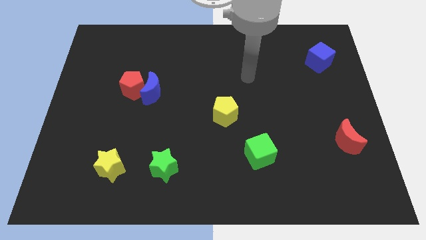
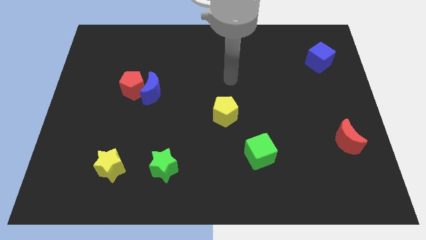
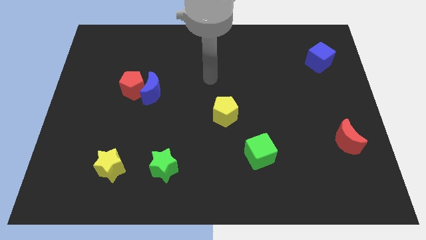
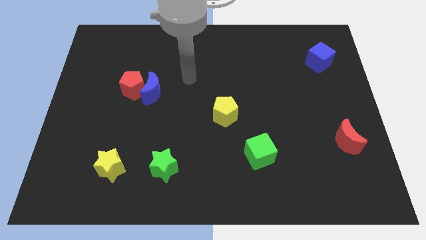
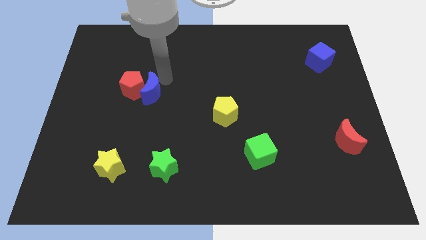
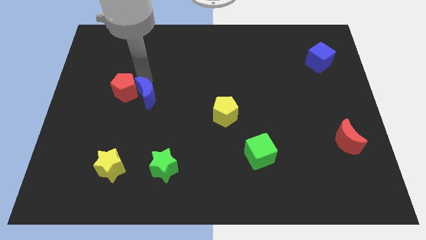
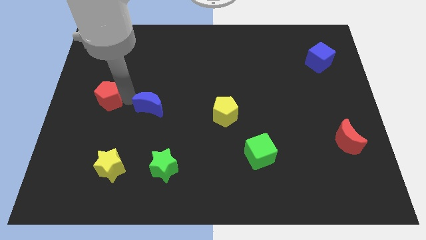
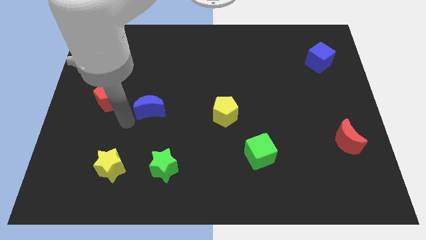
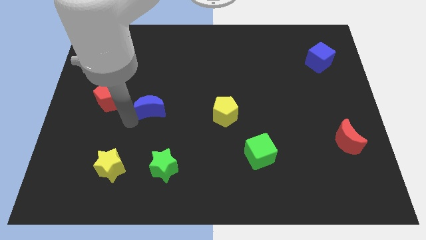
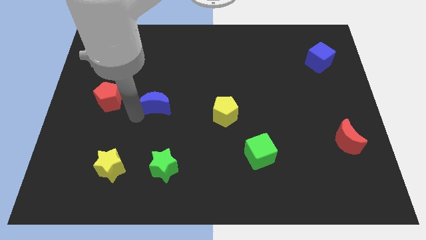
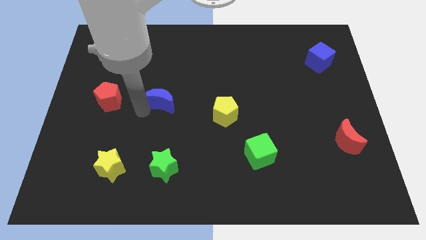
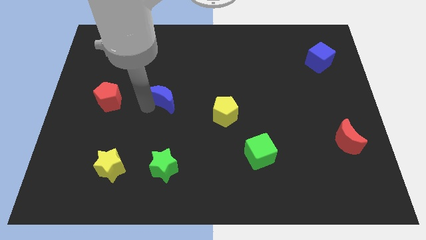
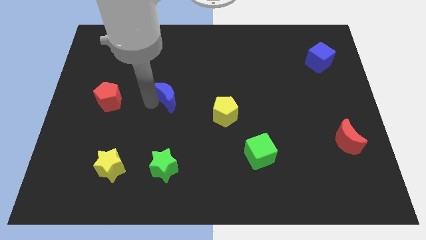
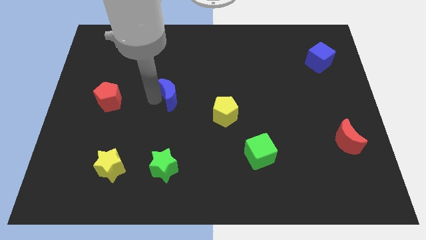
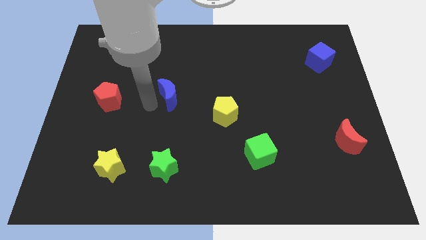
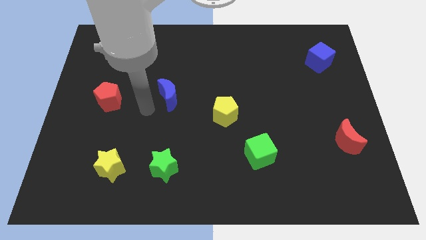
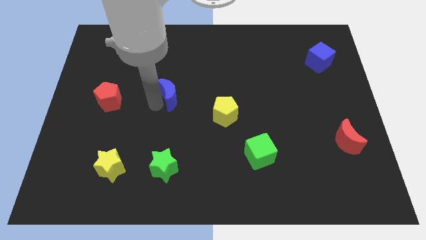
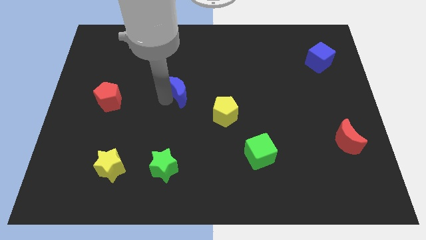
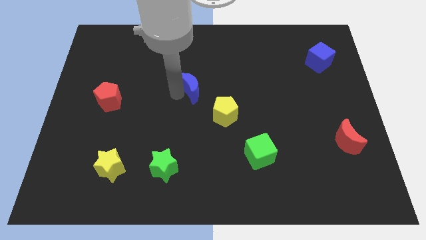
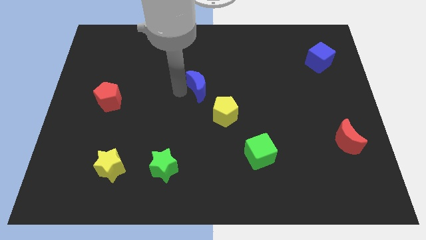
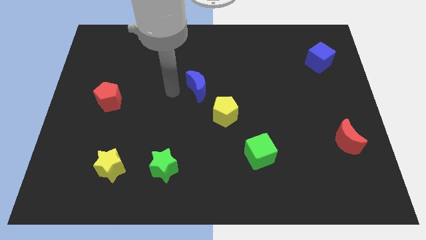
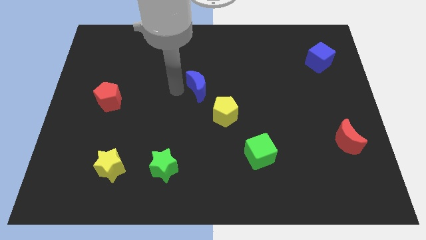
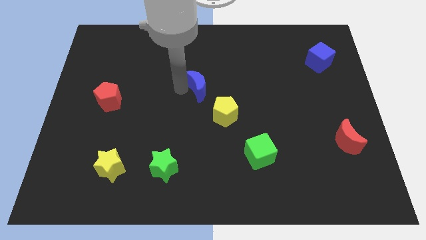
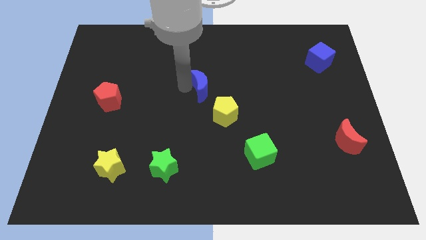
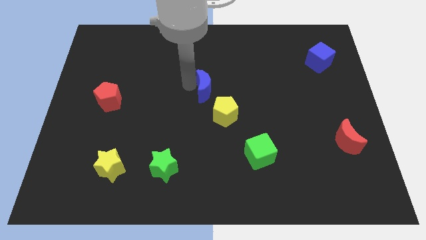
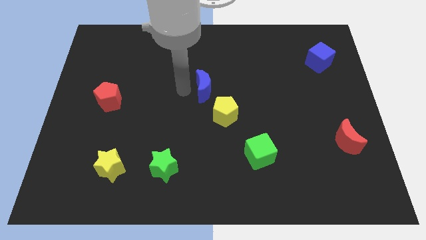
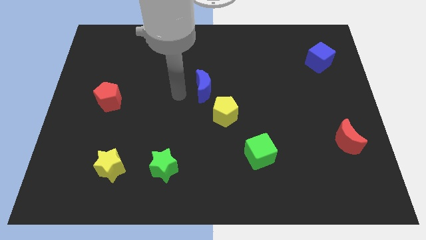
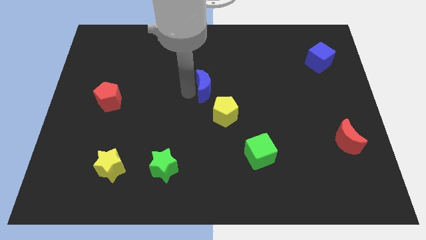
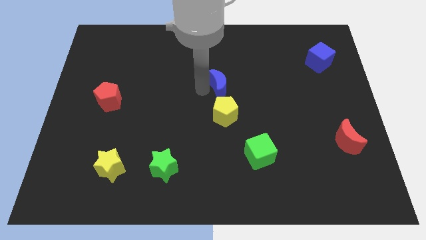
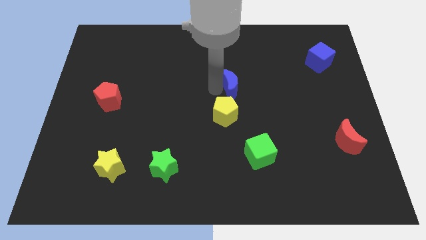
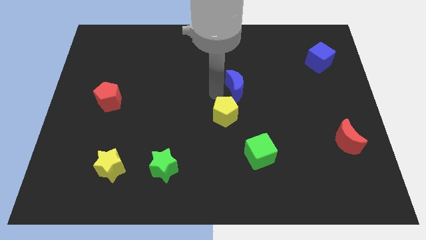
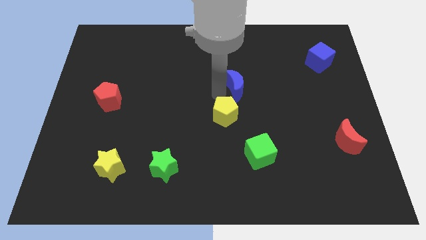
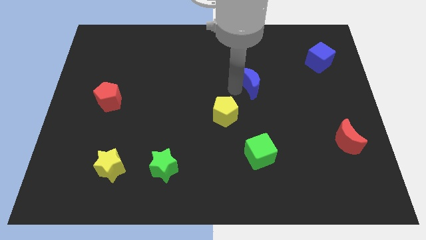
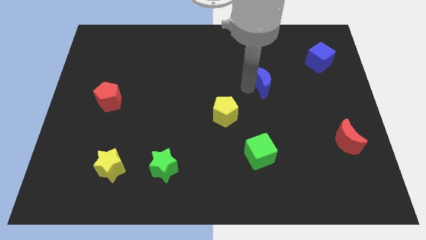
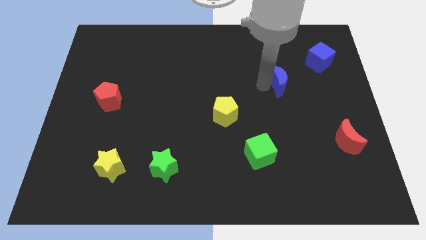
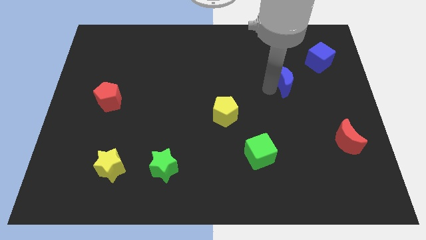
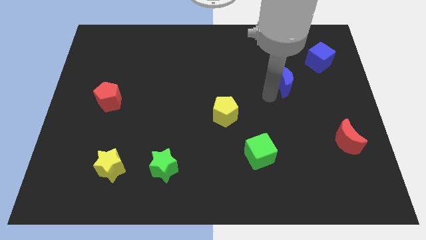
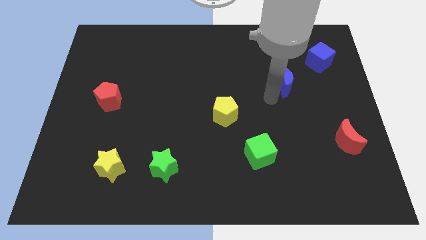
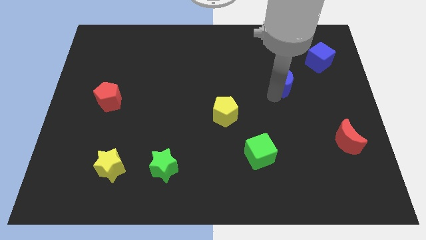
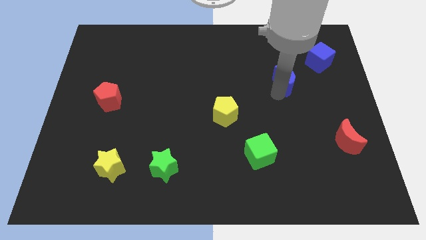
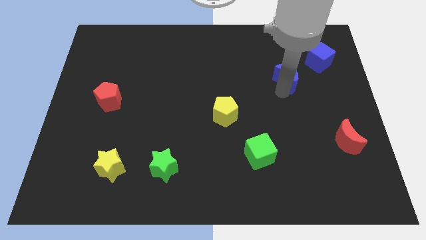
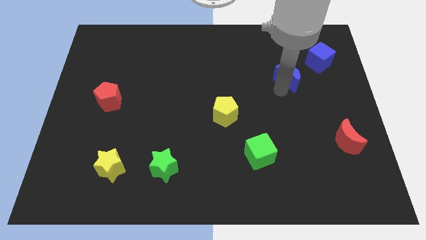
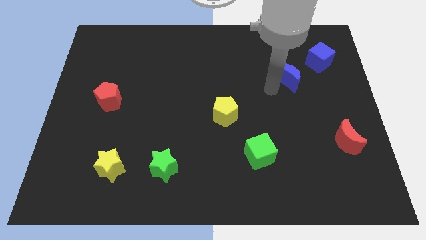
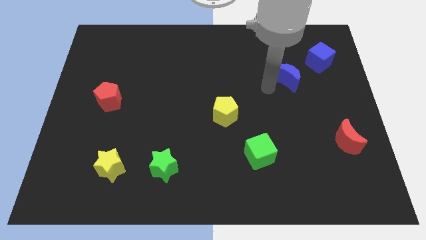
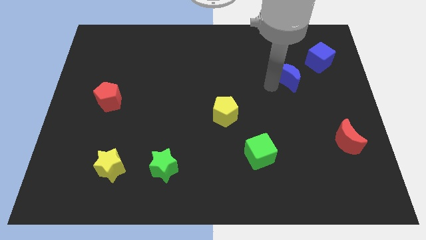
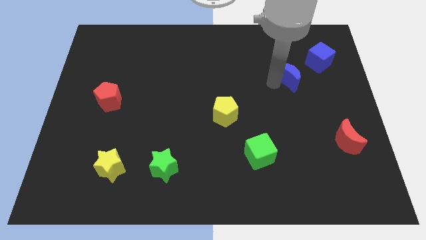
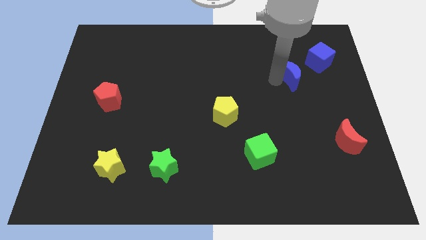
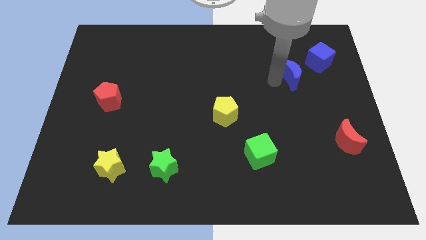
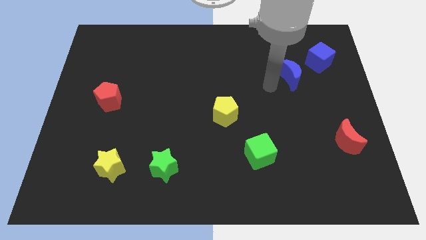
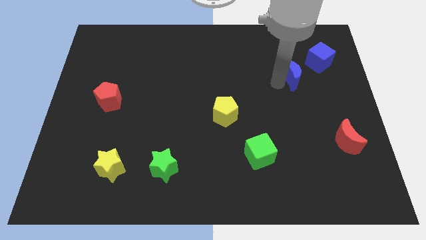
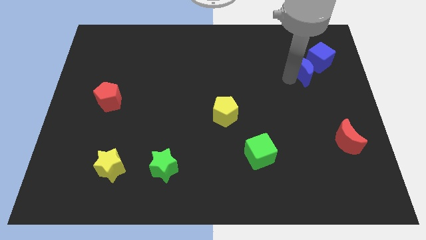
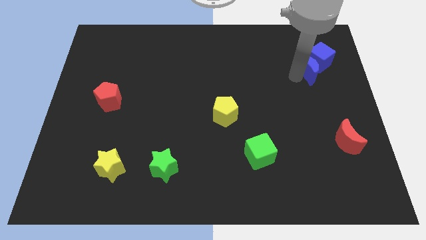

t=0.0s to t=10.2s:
move the blue moon towards the blue cube

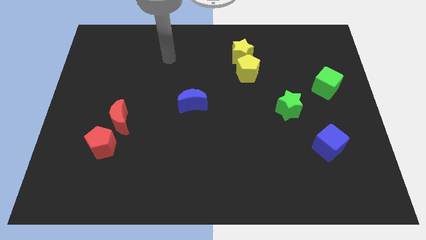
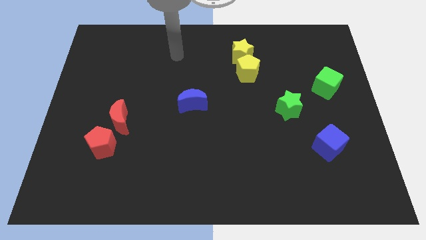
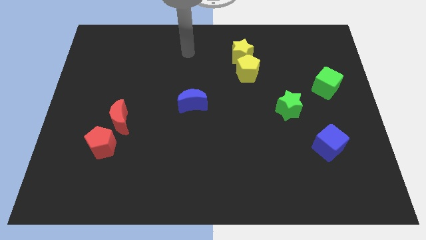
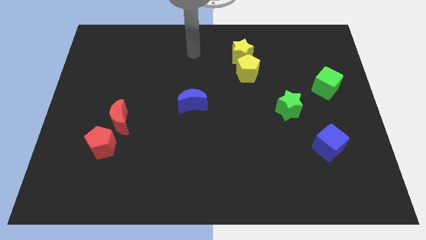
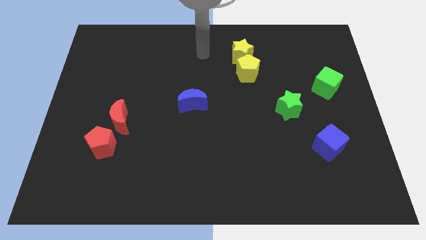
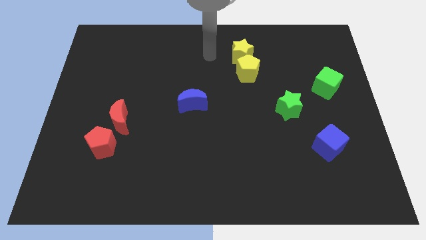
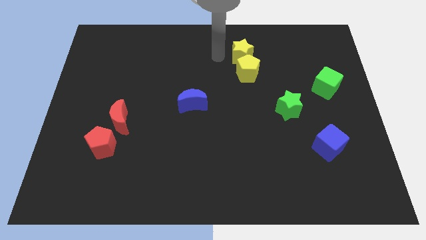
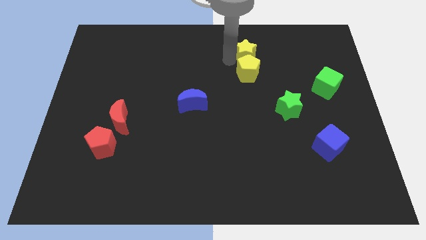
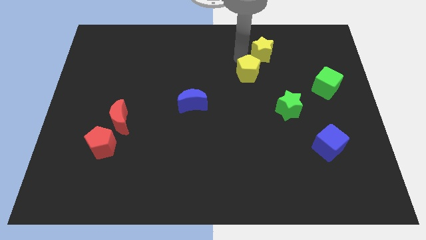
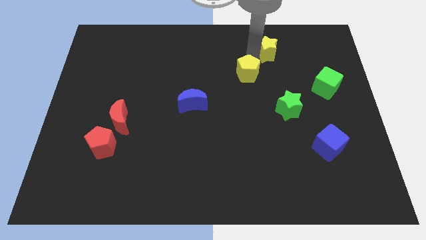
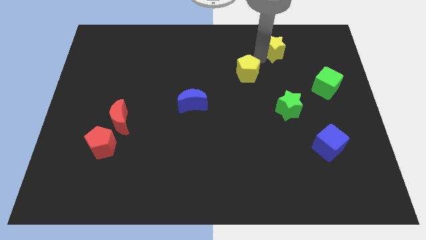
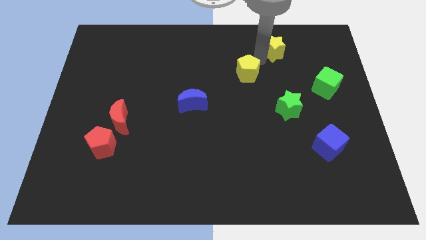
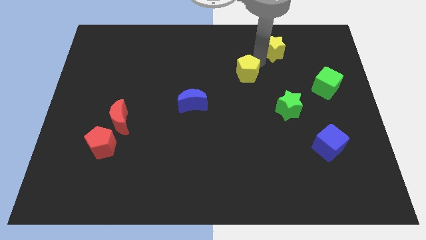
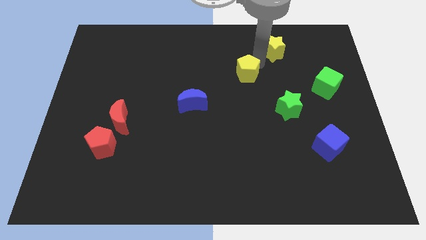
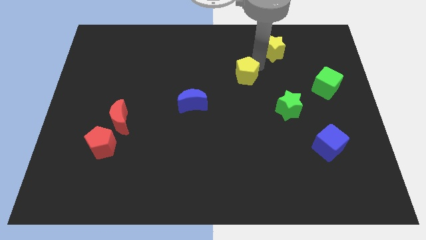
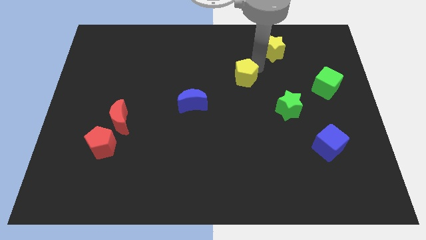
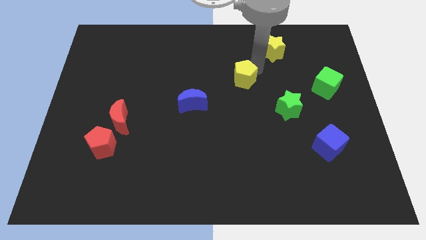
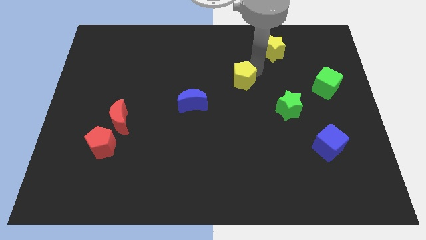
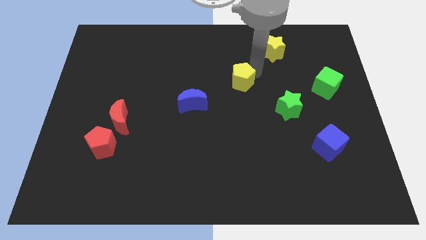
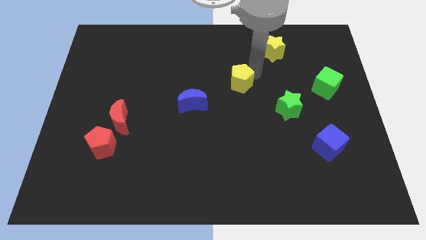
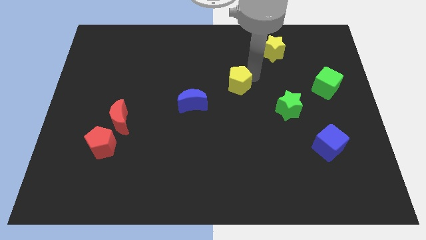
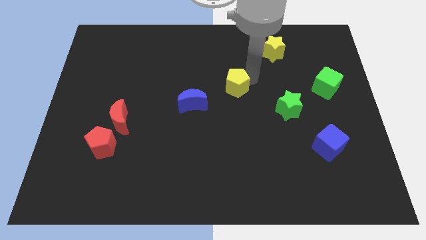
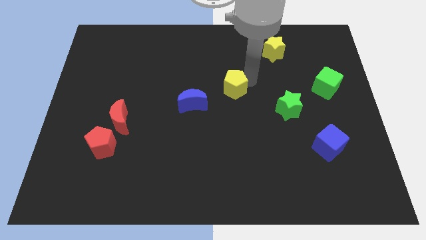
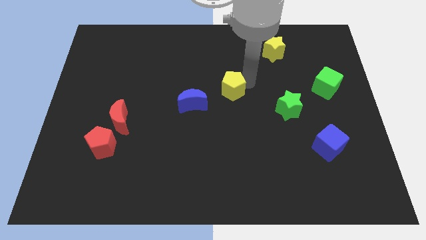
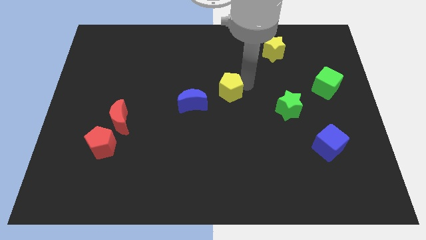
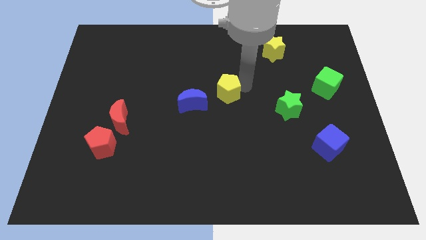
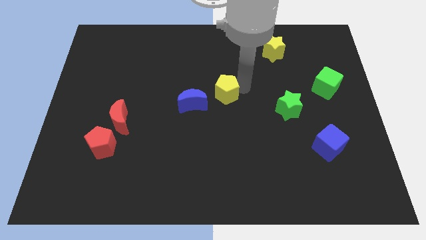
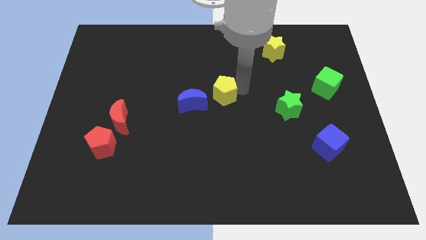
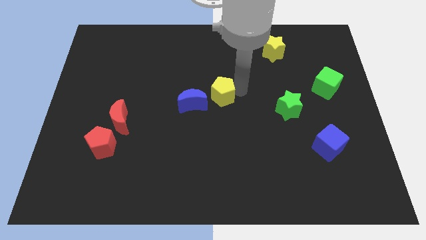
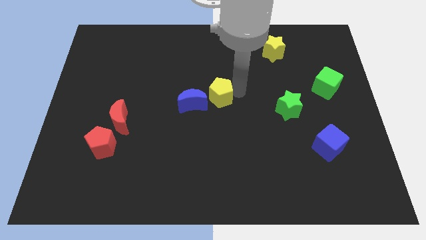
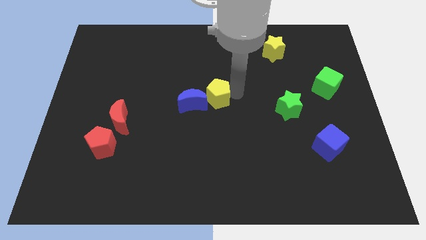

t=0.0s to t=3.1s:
push the yellow pentagon to the blue moon
